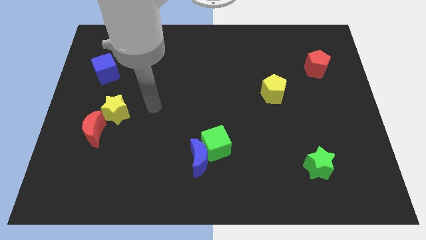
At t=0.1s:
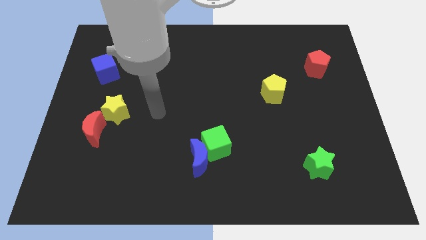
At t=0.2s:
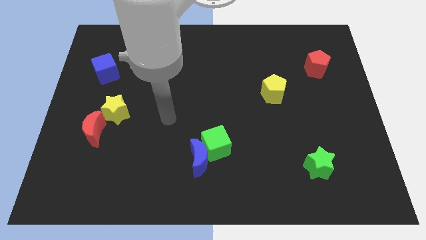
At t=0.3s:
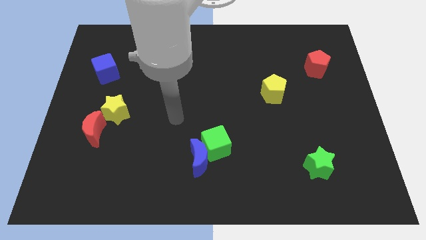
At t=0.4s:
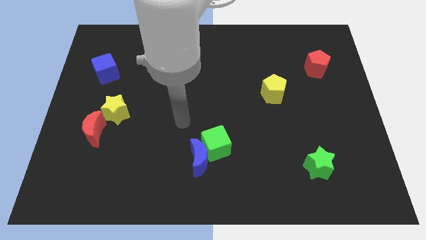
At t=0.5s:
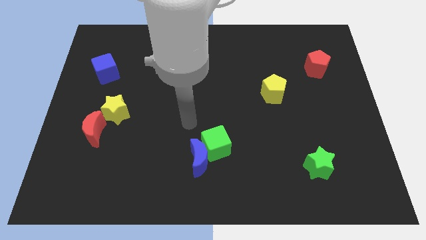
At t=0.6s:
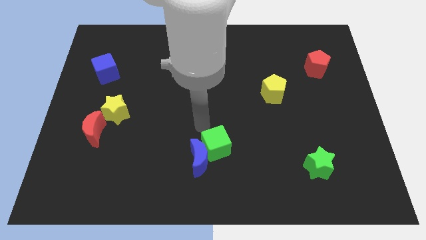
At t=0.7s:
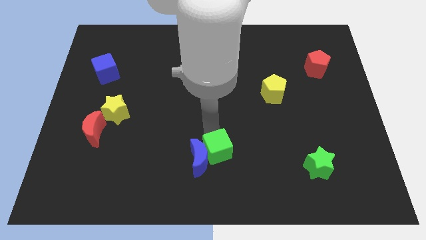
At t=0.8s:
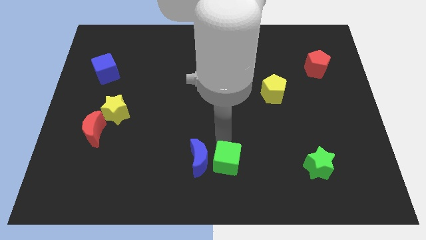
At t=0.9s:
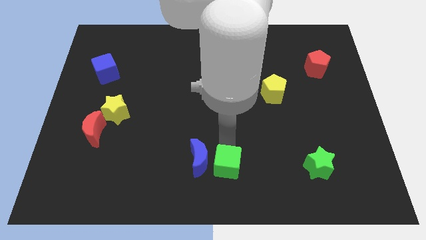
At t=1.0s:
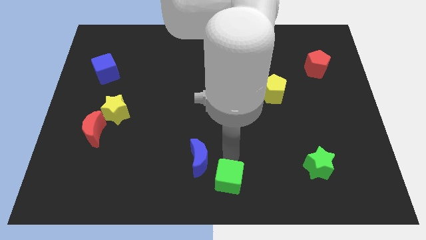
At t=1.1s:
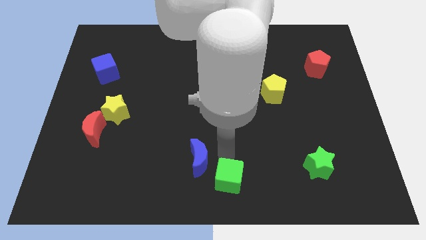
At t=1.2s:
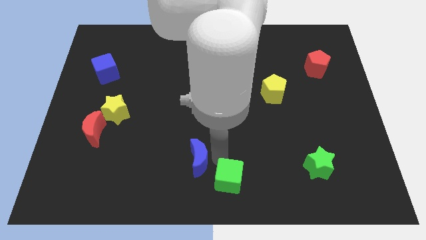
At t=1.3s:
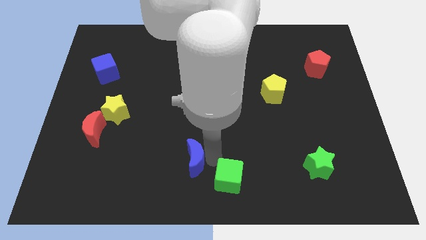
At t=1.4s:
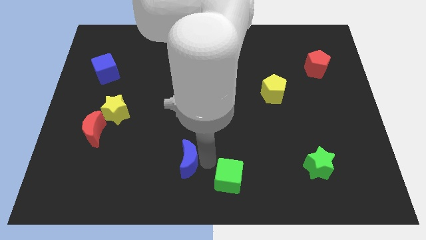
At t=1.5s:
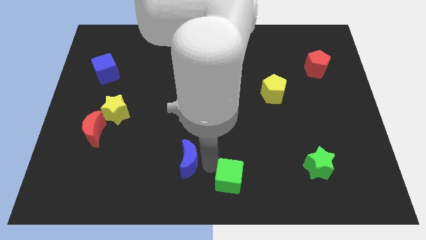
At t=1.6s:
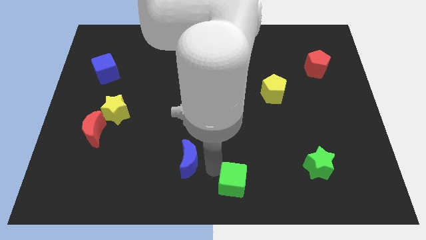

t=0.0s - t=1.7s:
move the blue moon away from the green cube

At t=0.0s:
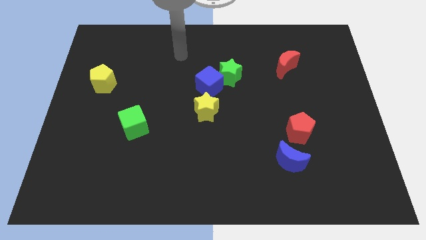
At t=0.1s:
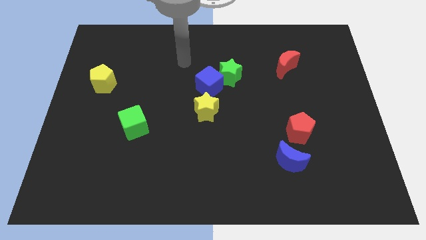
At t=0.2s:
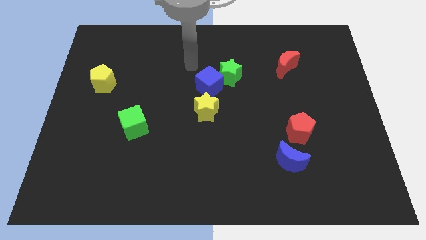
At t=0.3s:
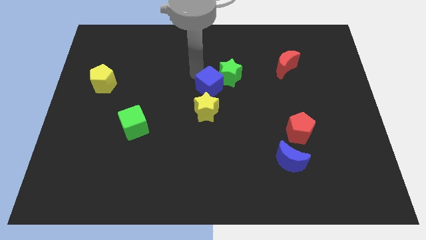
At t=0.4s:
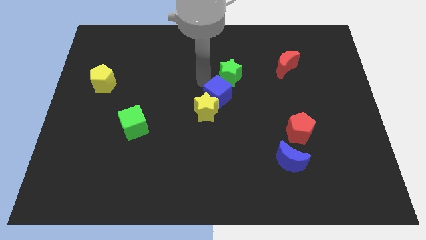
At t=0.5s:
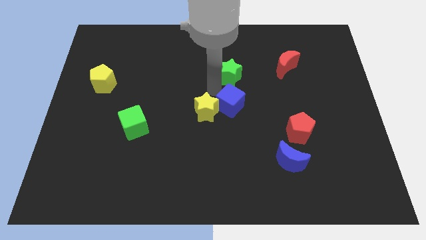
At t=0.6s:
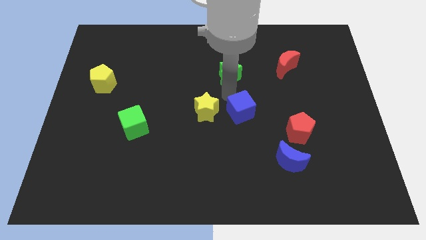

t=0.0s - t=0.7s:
pull the green star apart from the blue cube

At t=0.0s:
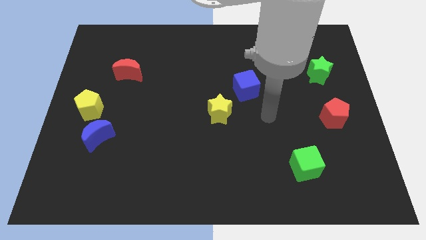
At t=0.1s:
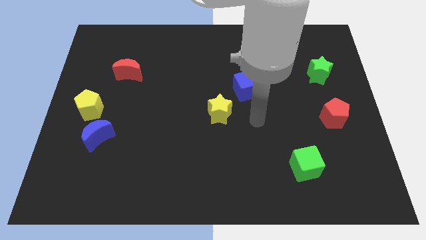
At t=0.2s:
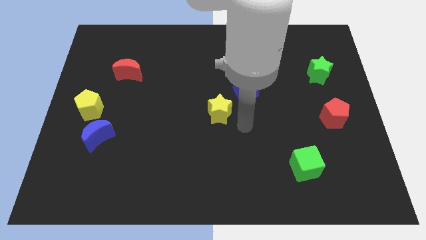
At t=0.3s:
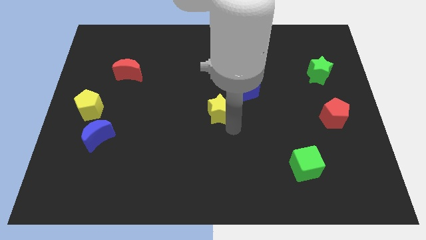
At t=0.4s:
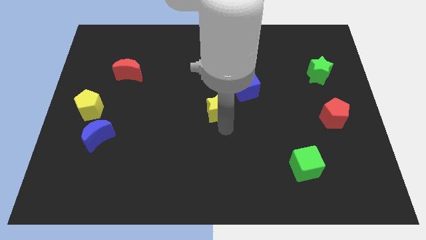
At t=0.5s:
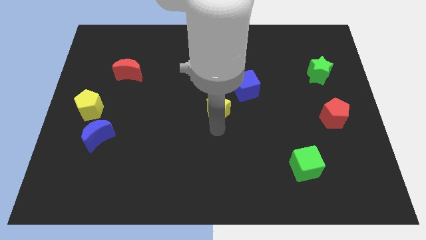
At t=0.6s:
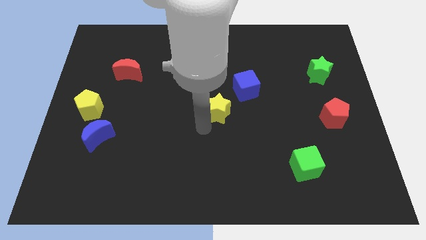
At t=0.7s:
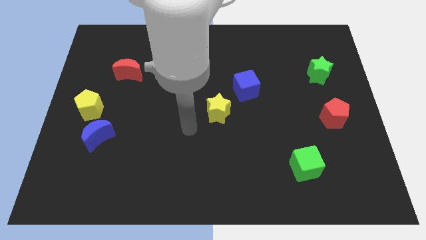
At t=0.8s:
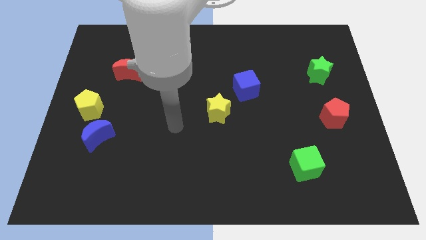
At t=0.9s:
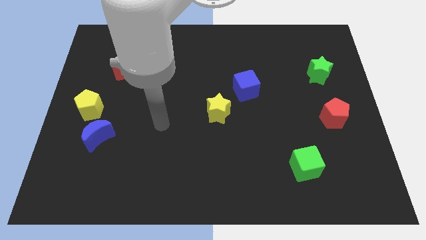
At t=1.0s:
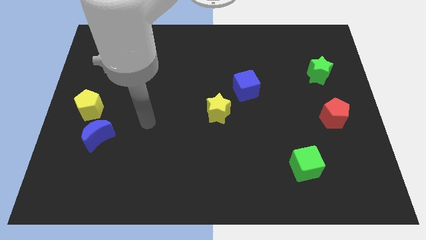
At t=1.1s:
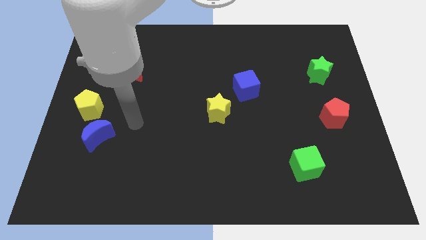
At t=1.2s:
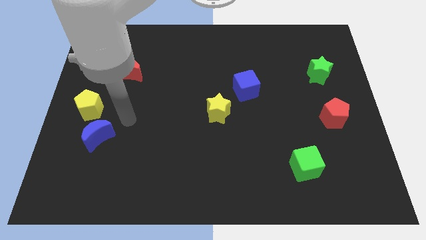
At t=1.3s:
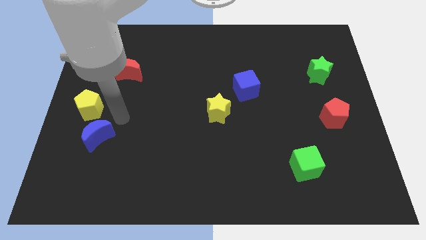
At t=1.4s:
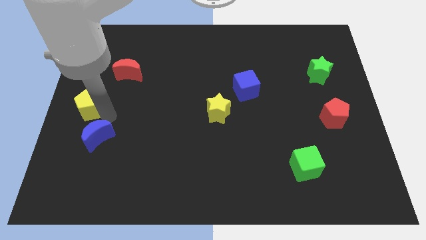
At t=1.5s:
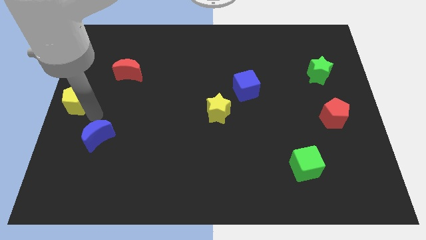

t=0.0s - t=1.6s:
pull the blue moon apart from the yellow pentagon

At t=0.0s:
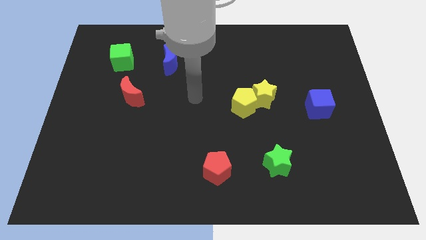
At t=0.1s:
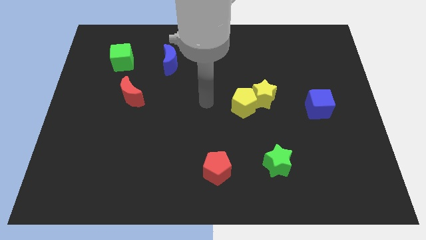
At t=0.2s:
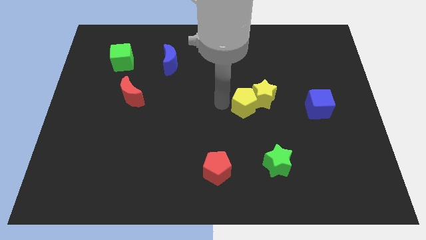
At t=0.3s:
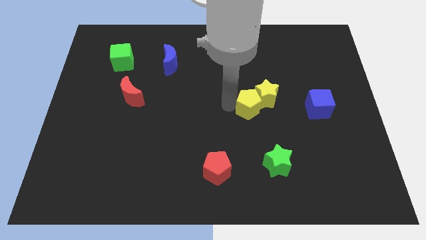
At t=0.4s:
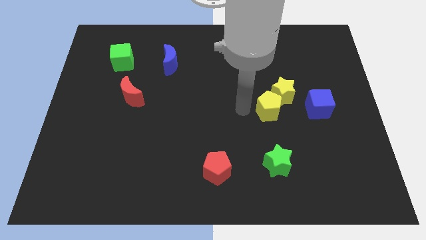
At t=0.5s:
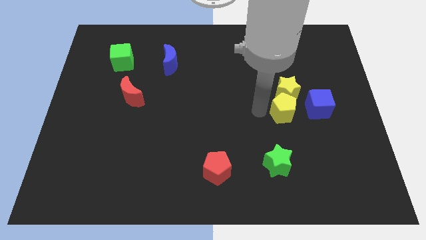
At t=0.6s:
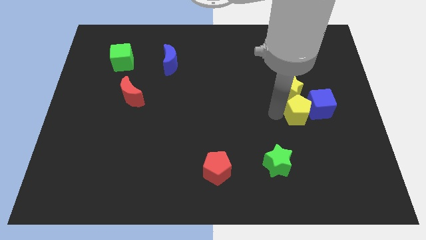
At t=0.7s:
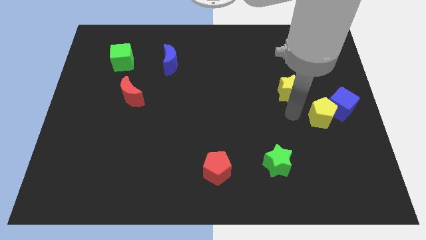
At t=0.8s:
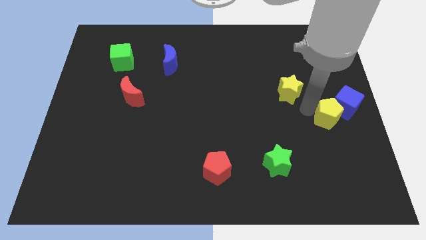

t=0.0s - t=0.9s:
pull the yellow star apart from the yellow pentagon

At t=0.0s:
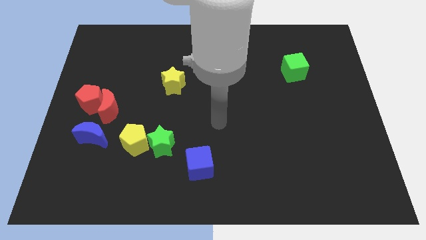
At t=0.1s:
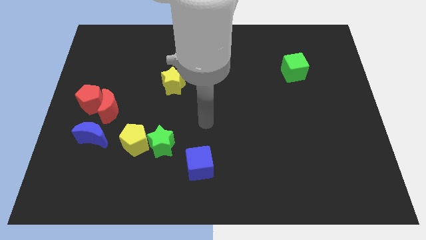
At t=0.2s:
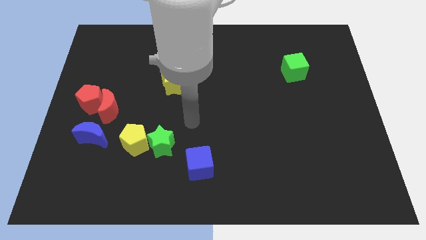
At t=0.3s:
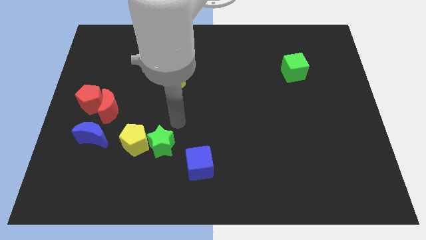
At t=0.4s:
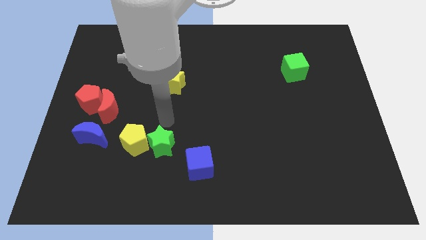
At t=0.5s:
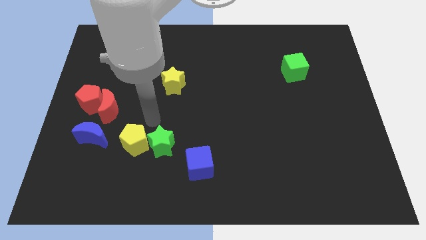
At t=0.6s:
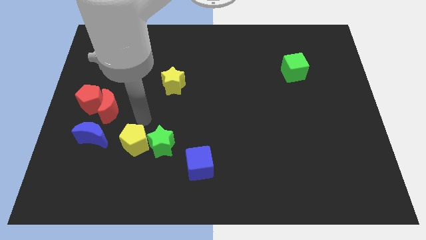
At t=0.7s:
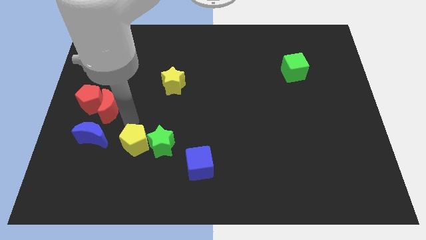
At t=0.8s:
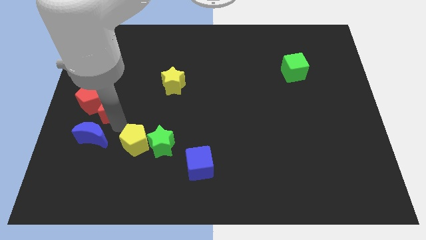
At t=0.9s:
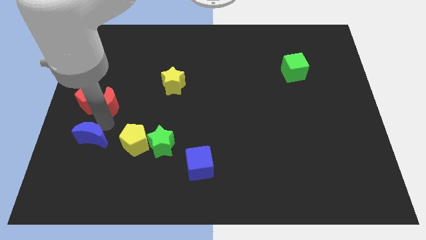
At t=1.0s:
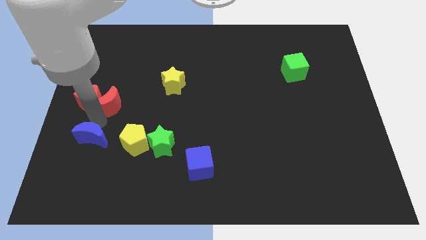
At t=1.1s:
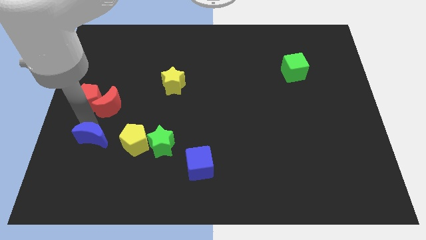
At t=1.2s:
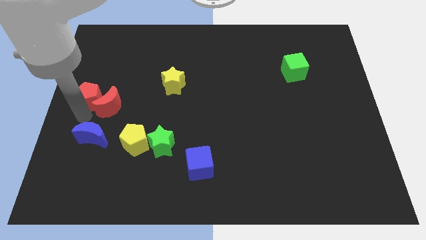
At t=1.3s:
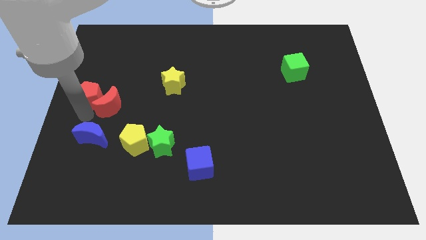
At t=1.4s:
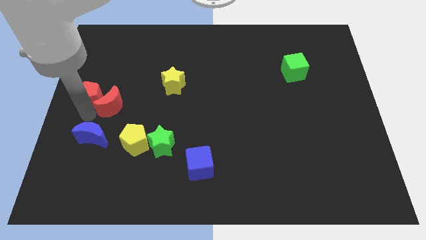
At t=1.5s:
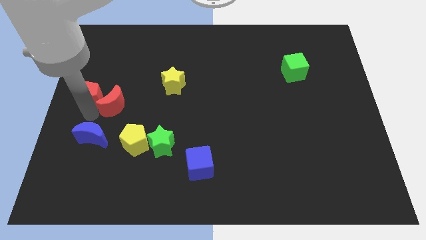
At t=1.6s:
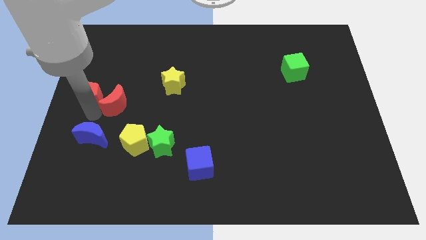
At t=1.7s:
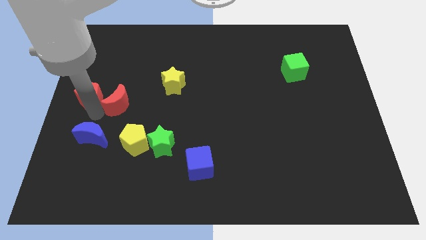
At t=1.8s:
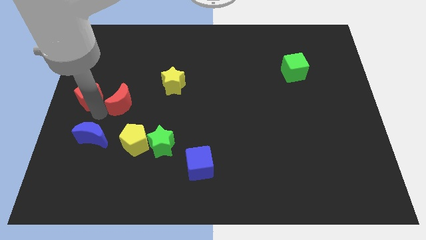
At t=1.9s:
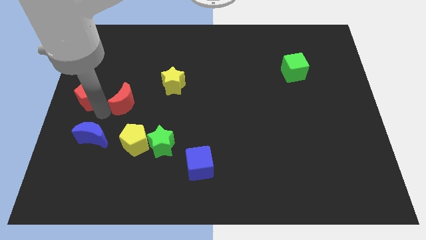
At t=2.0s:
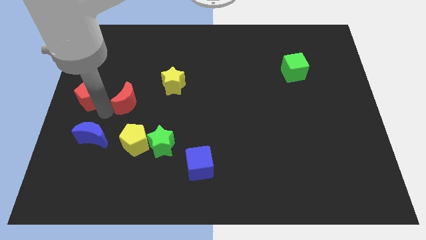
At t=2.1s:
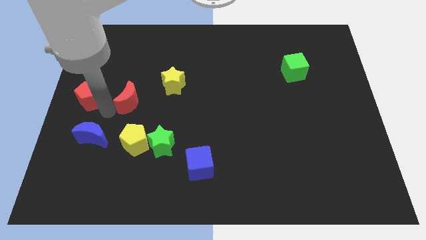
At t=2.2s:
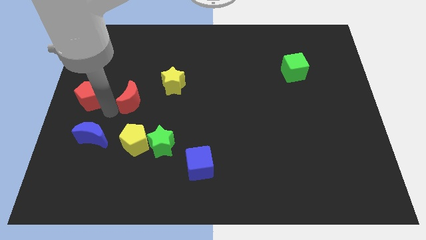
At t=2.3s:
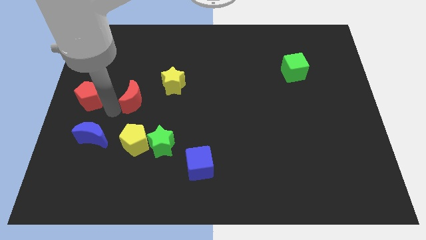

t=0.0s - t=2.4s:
pull the red moon apart from the red pentagon and blue moon

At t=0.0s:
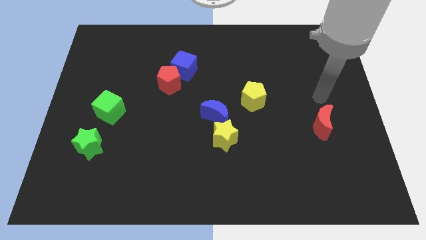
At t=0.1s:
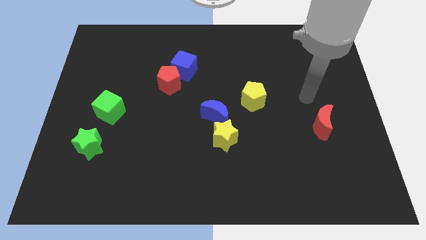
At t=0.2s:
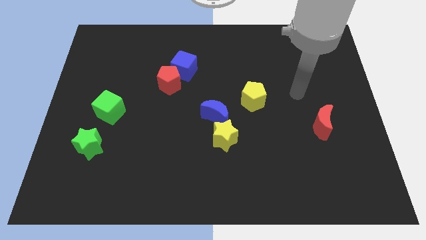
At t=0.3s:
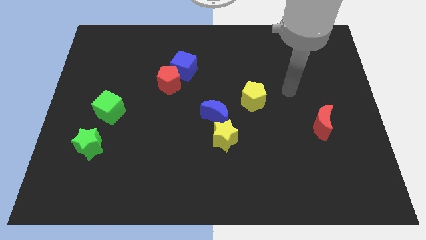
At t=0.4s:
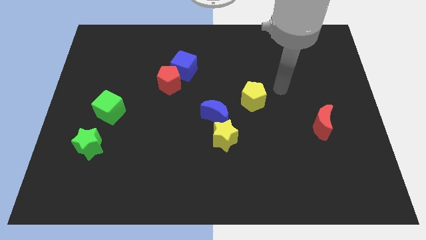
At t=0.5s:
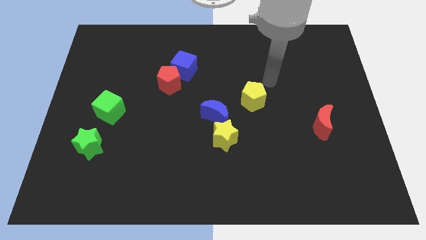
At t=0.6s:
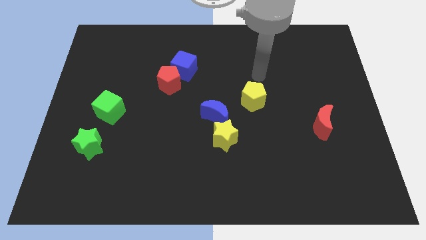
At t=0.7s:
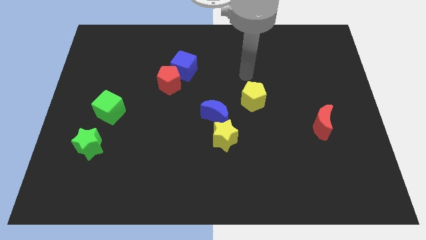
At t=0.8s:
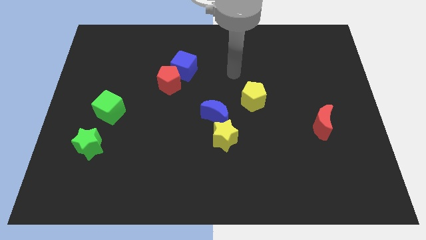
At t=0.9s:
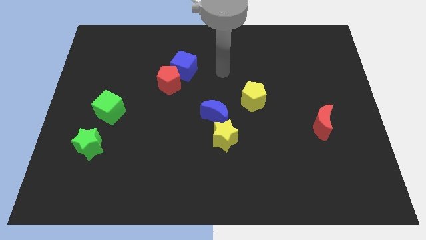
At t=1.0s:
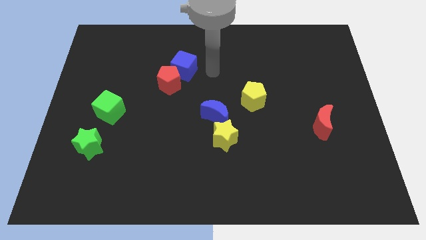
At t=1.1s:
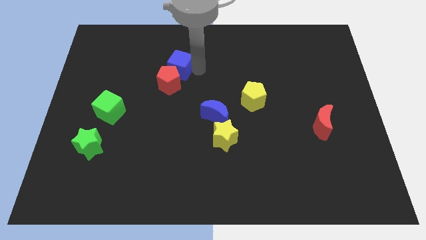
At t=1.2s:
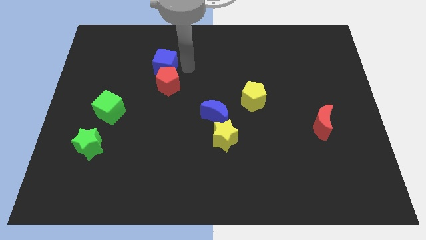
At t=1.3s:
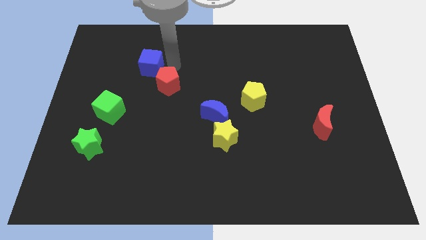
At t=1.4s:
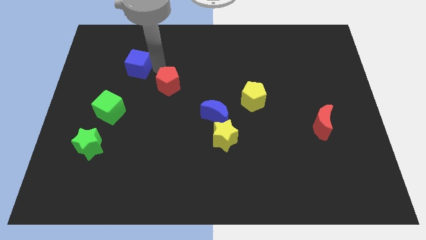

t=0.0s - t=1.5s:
pull the red pentagon apart from the blue cube

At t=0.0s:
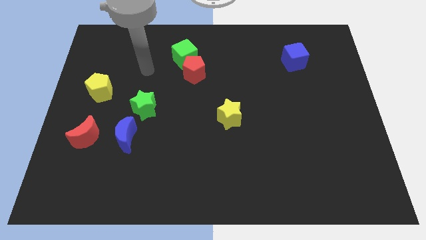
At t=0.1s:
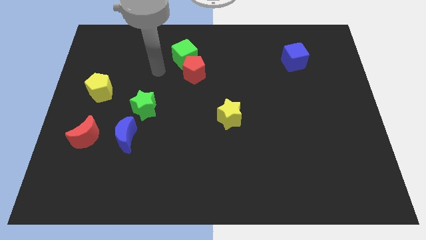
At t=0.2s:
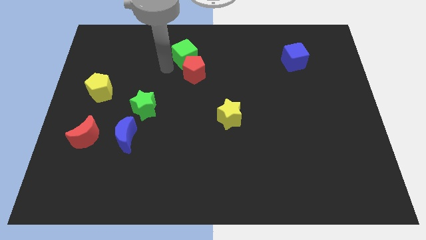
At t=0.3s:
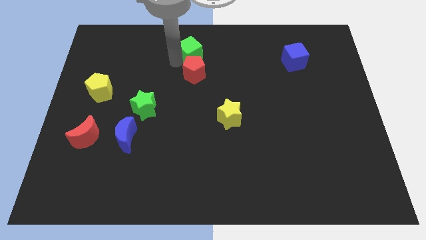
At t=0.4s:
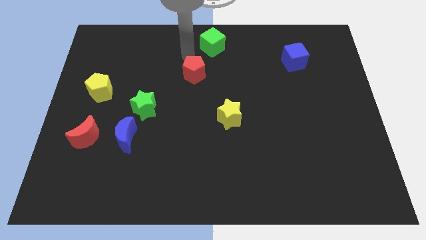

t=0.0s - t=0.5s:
separate the red pentagon from the green cube
